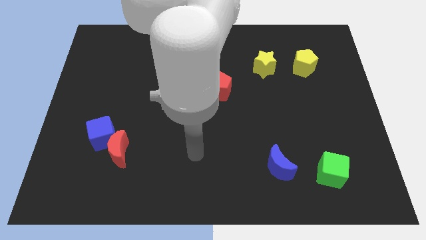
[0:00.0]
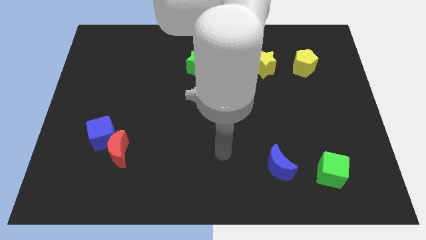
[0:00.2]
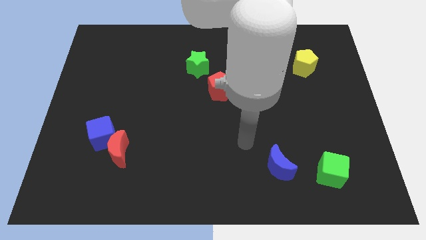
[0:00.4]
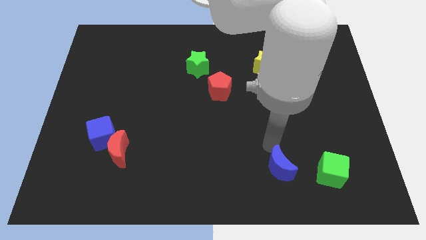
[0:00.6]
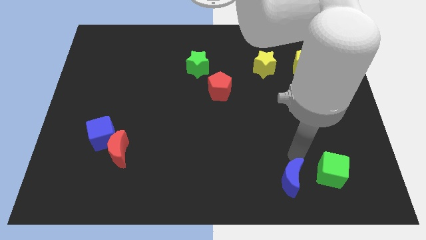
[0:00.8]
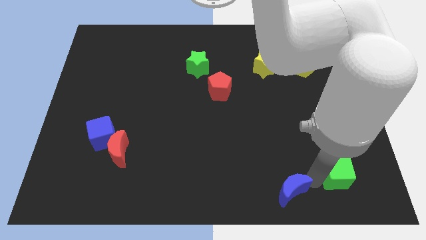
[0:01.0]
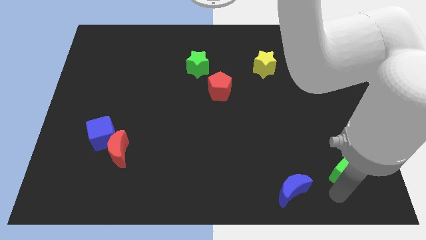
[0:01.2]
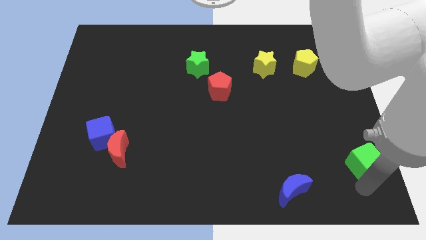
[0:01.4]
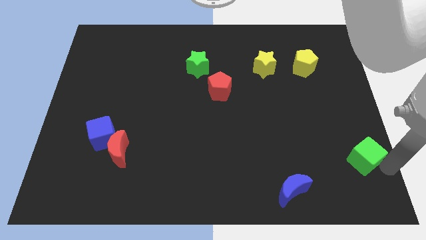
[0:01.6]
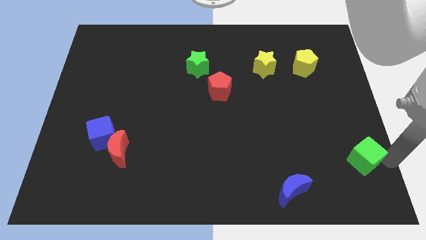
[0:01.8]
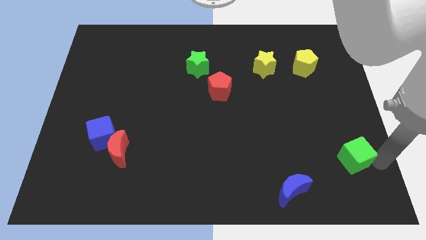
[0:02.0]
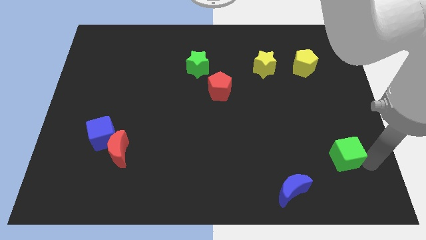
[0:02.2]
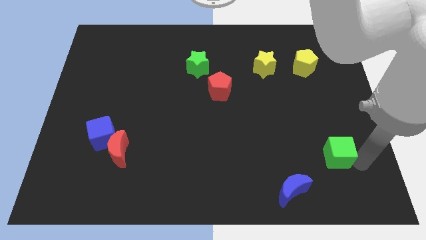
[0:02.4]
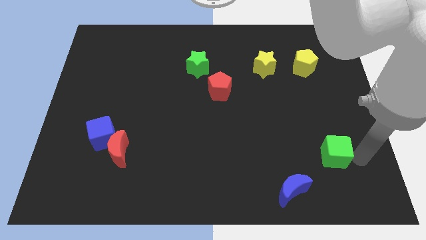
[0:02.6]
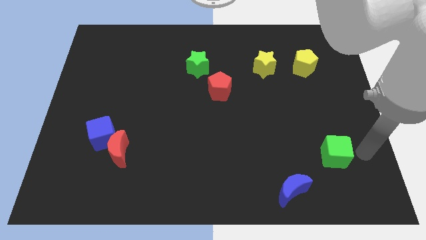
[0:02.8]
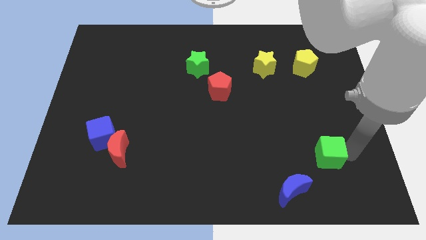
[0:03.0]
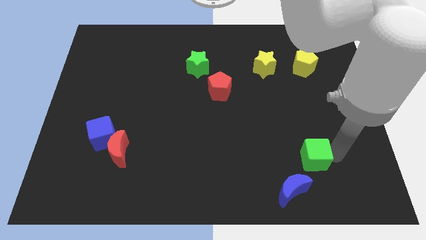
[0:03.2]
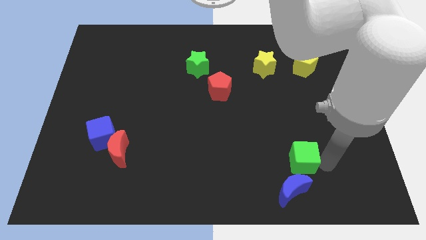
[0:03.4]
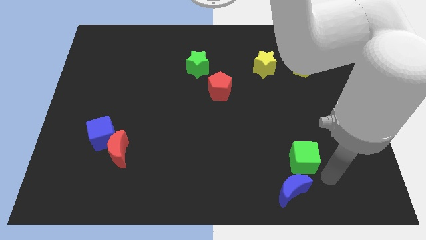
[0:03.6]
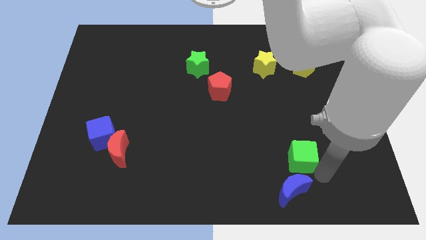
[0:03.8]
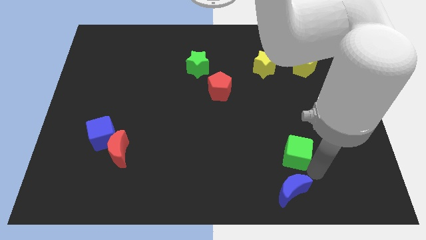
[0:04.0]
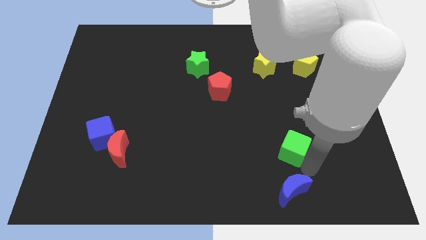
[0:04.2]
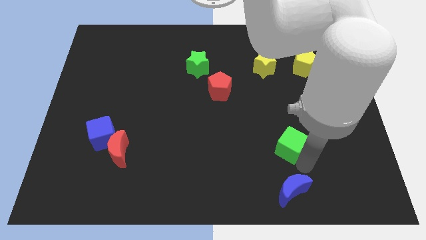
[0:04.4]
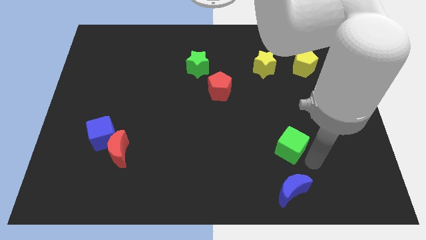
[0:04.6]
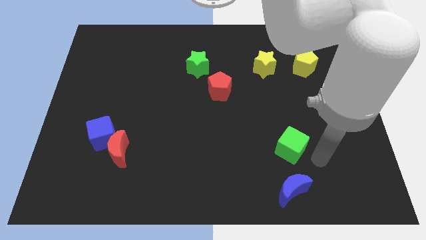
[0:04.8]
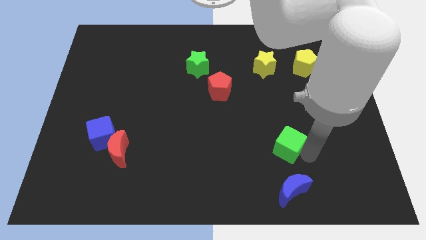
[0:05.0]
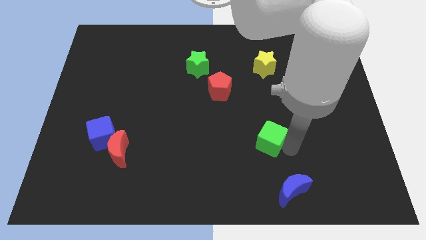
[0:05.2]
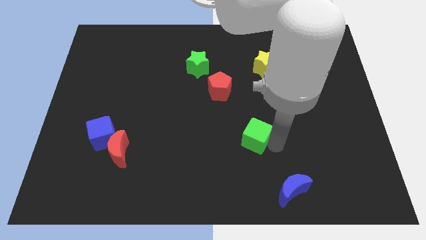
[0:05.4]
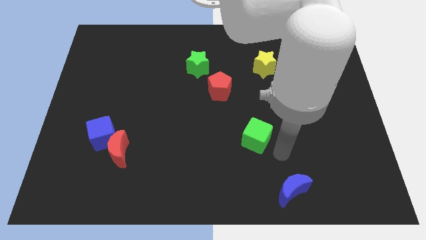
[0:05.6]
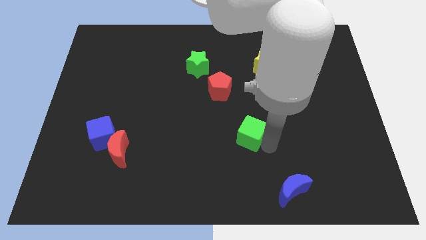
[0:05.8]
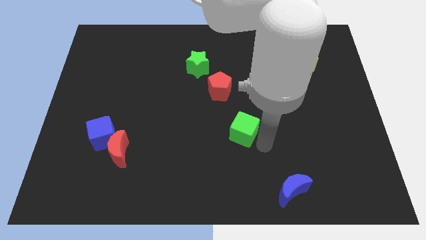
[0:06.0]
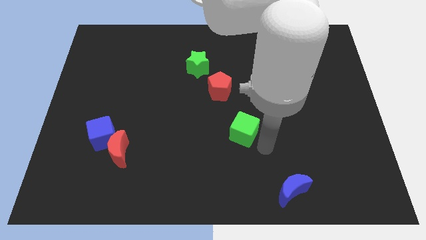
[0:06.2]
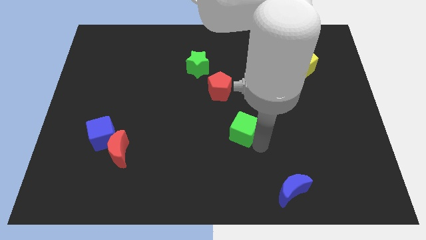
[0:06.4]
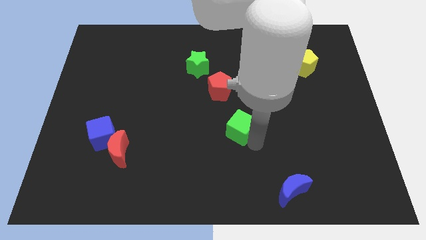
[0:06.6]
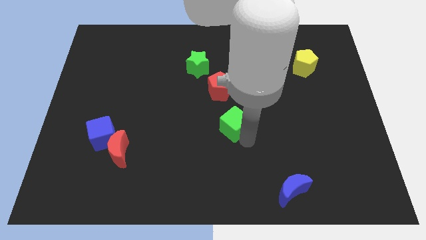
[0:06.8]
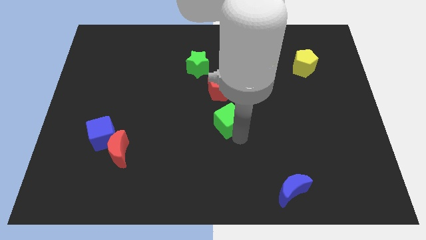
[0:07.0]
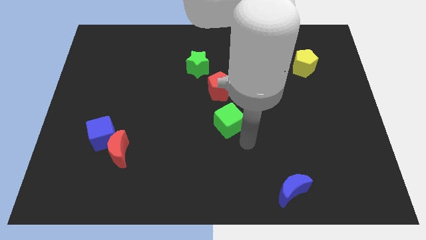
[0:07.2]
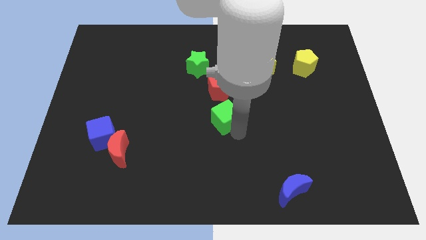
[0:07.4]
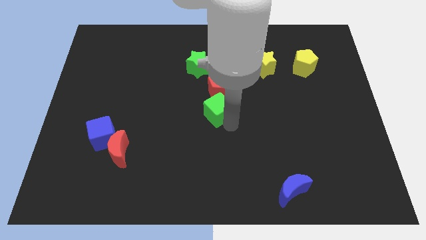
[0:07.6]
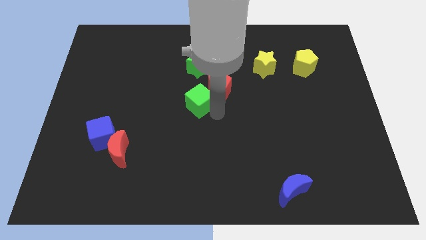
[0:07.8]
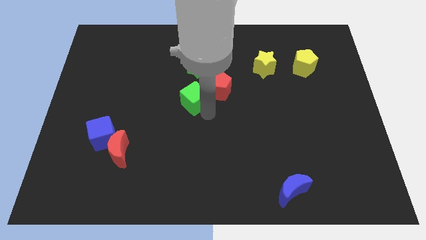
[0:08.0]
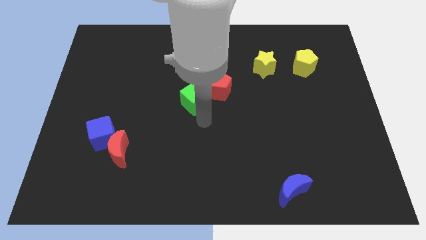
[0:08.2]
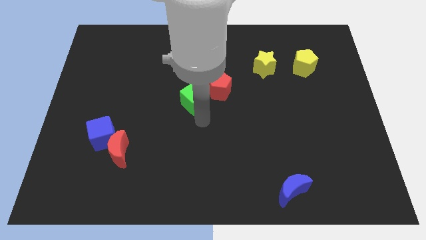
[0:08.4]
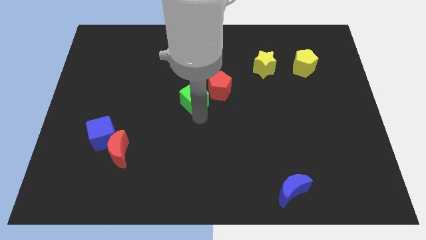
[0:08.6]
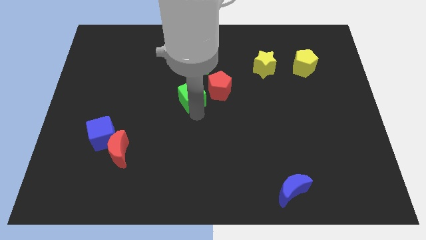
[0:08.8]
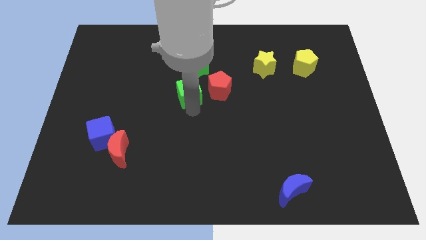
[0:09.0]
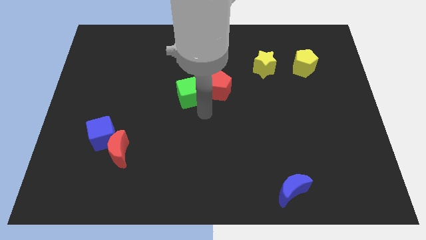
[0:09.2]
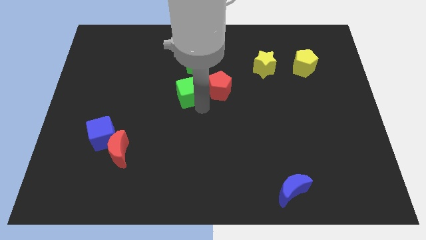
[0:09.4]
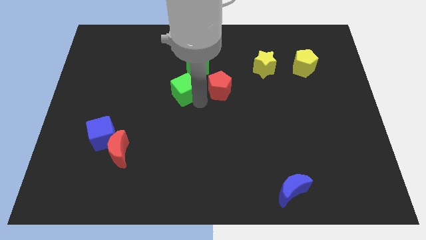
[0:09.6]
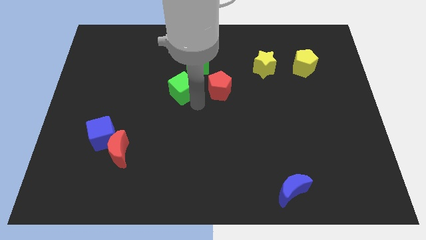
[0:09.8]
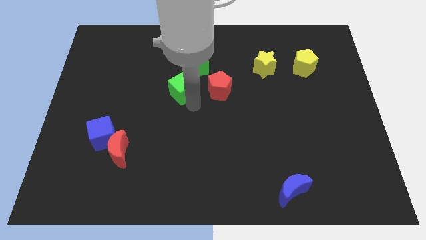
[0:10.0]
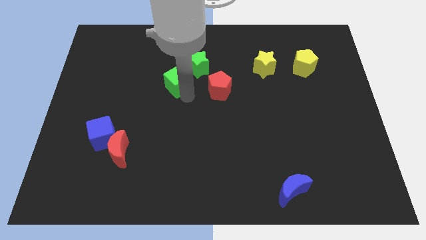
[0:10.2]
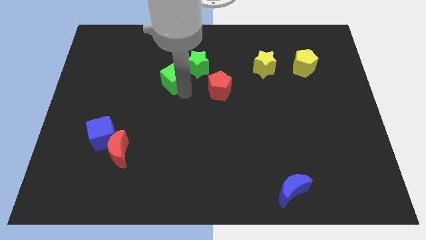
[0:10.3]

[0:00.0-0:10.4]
put the green cube left of the green star

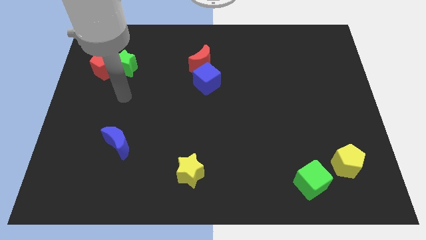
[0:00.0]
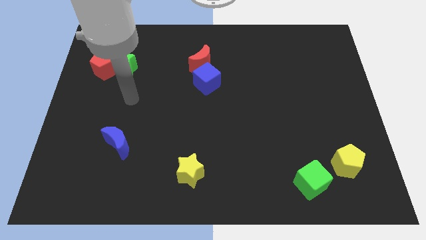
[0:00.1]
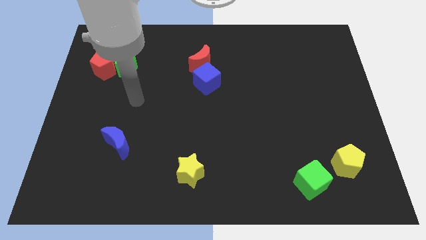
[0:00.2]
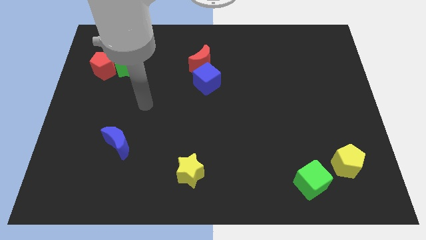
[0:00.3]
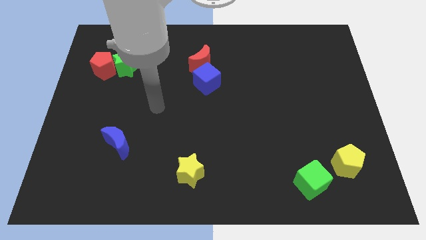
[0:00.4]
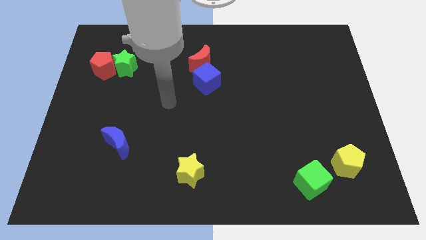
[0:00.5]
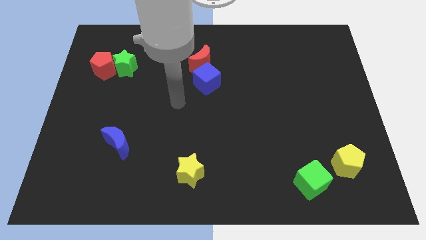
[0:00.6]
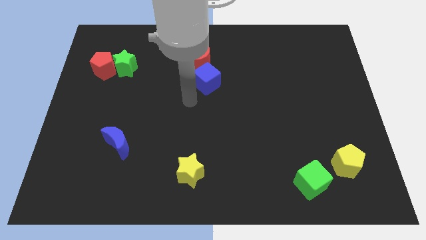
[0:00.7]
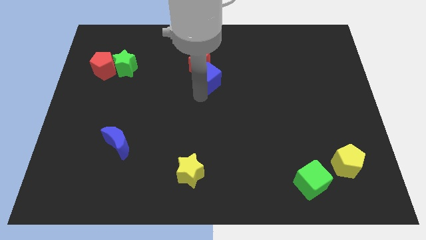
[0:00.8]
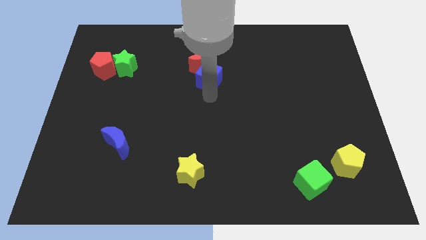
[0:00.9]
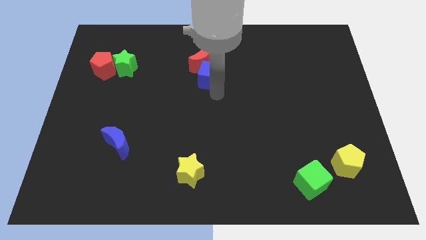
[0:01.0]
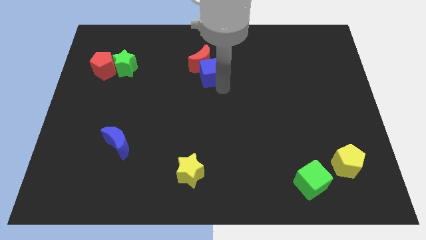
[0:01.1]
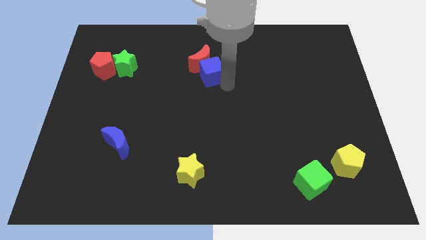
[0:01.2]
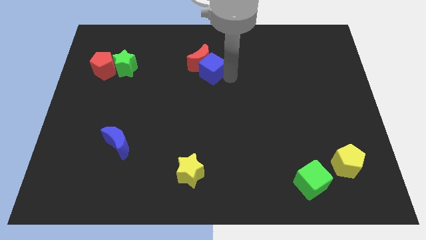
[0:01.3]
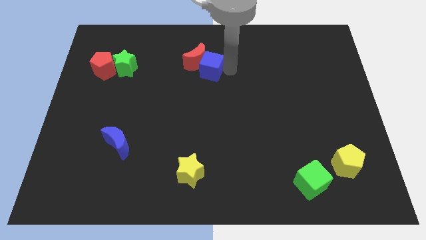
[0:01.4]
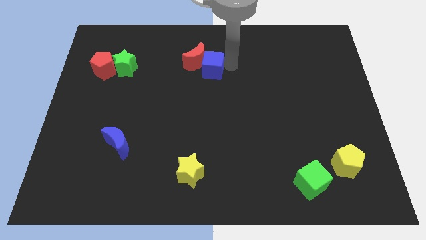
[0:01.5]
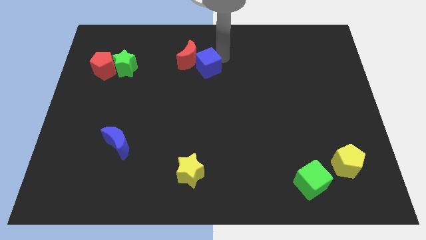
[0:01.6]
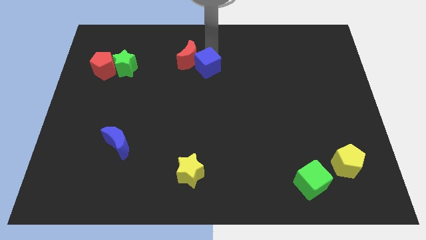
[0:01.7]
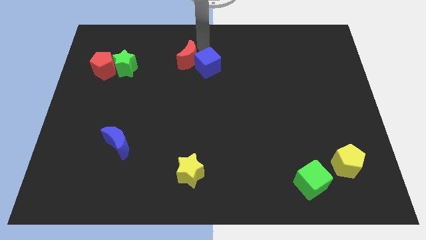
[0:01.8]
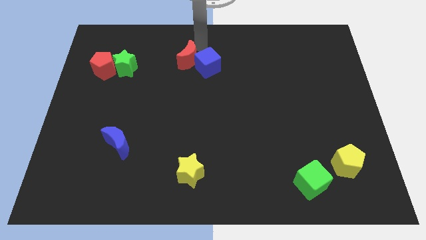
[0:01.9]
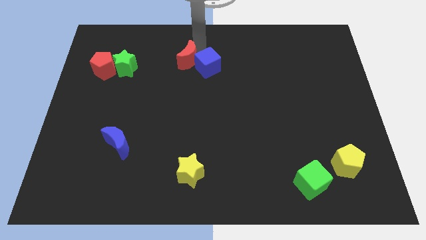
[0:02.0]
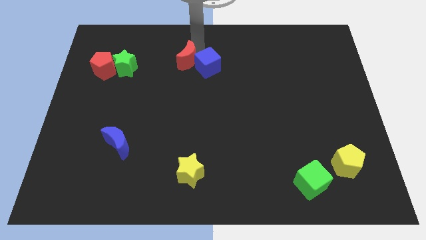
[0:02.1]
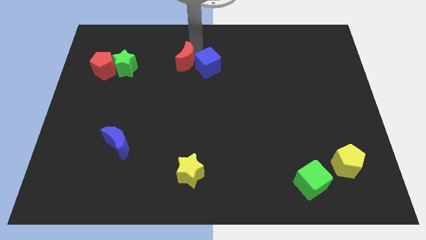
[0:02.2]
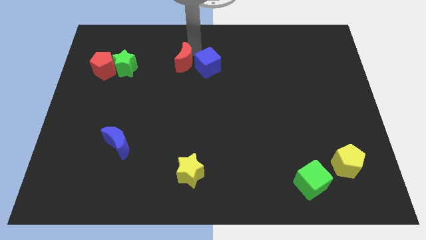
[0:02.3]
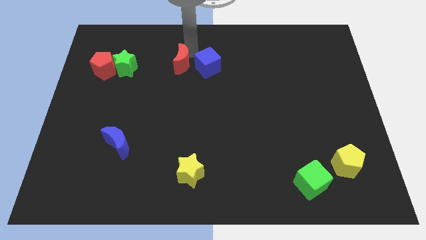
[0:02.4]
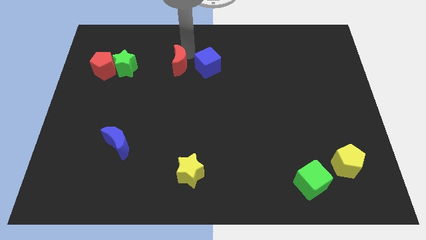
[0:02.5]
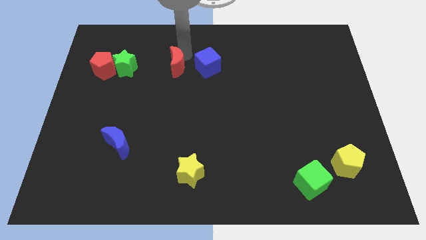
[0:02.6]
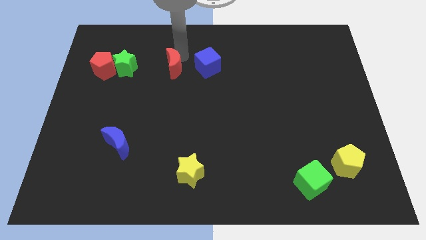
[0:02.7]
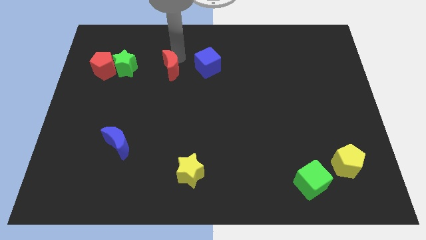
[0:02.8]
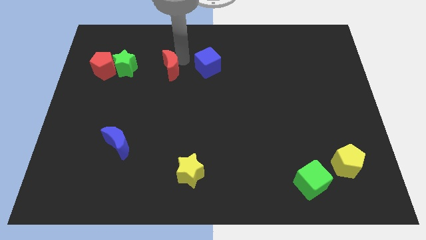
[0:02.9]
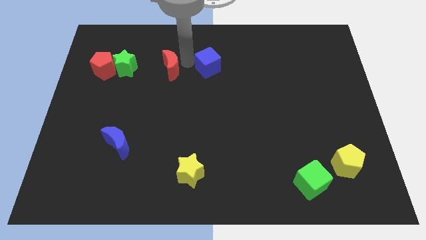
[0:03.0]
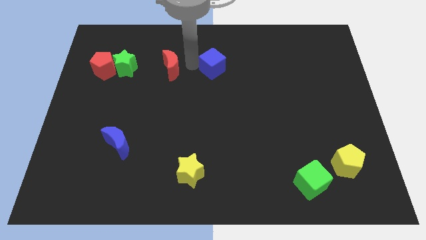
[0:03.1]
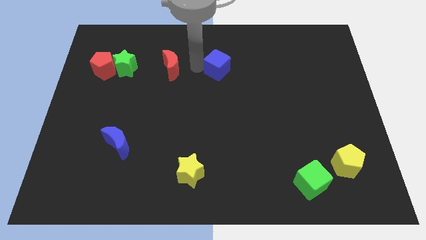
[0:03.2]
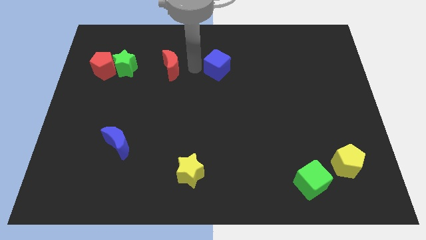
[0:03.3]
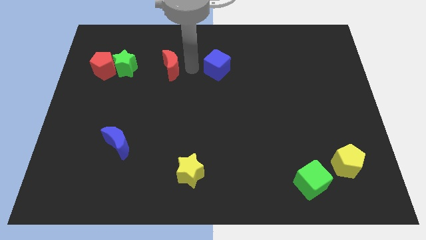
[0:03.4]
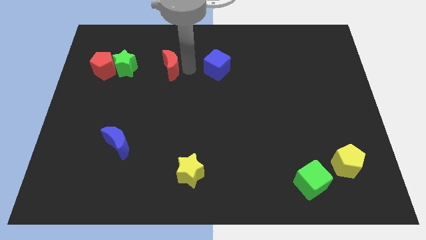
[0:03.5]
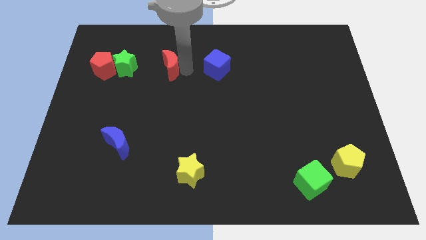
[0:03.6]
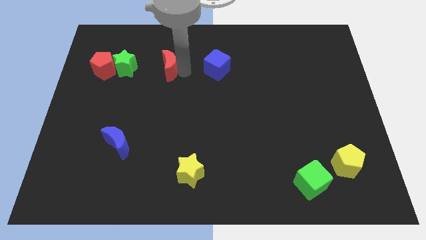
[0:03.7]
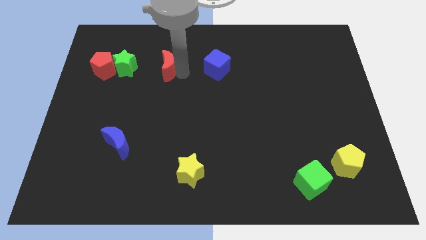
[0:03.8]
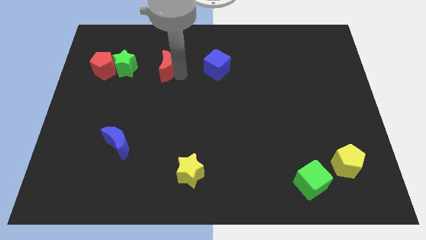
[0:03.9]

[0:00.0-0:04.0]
slide the red moon right of the red pentagon
